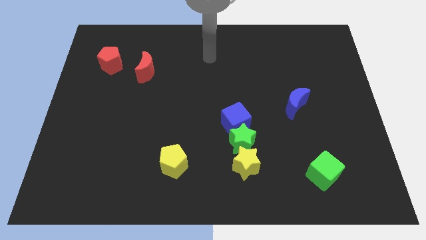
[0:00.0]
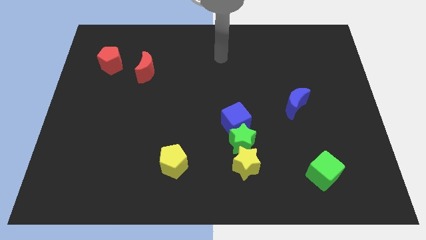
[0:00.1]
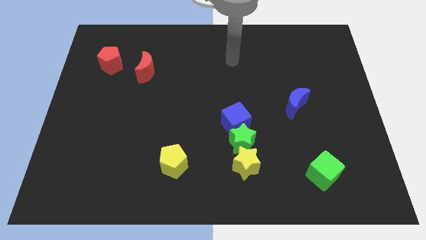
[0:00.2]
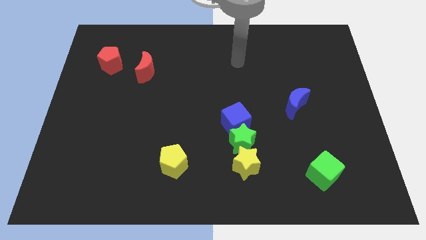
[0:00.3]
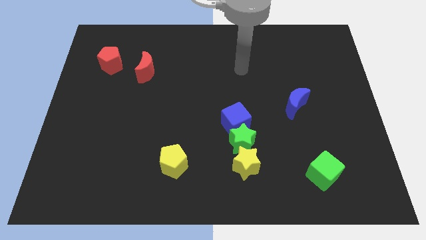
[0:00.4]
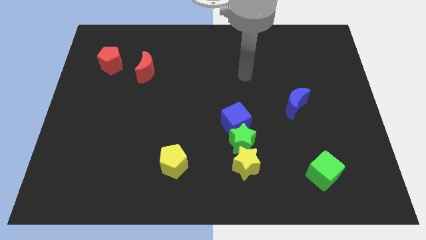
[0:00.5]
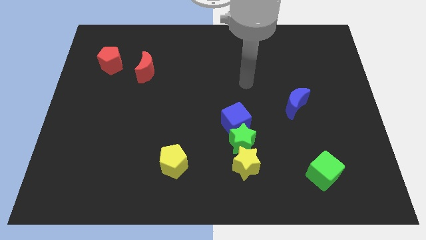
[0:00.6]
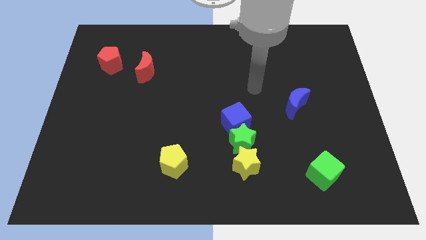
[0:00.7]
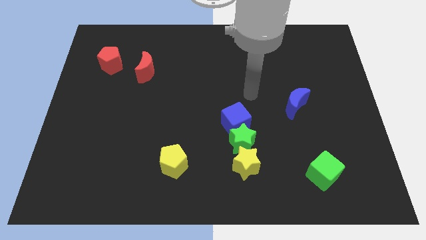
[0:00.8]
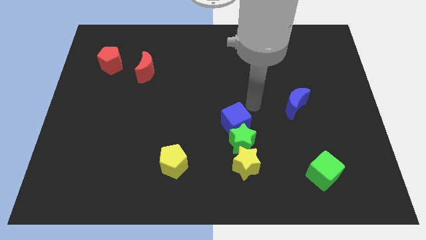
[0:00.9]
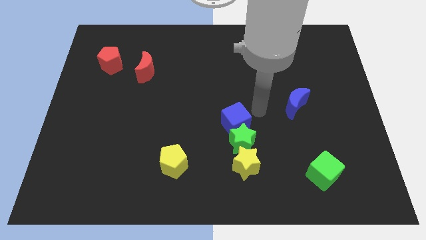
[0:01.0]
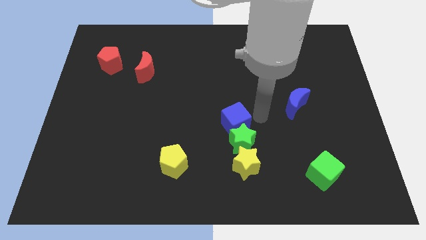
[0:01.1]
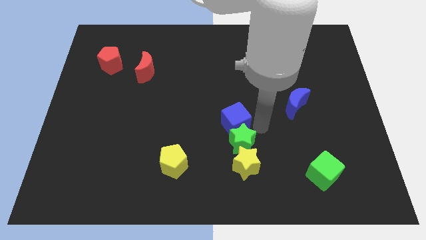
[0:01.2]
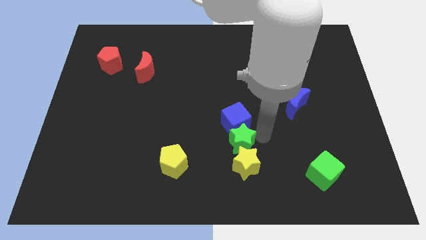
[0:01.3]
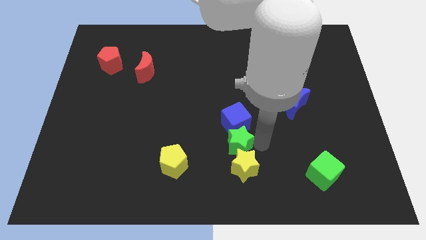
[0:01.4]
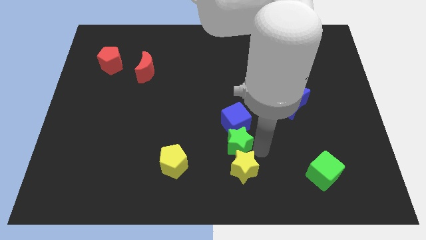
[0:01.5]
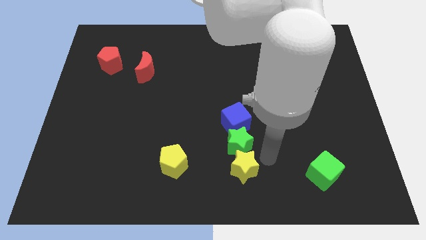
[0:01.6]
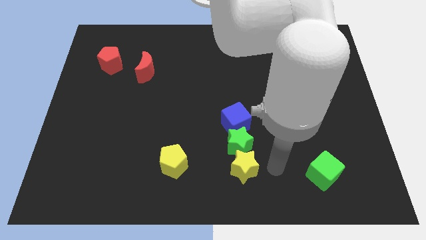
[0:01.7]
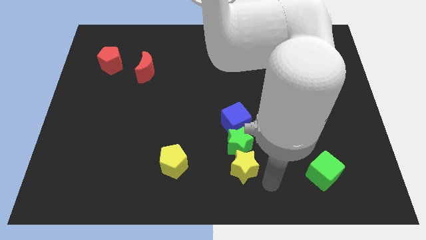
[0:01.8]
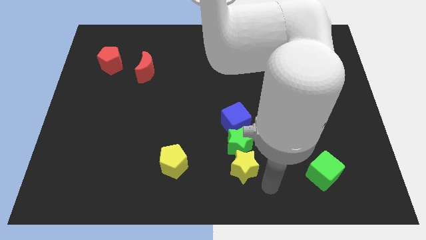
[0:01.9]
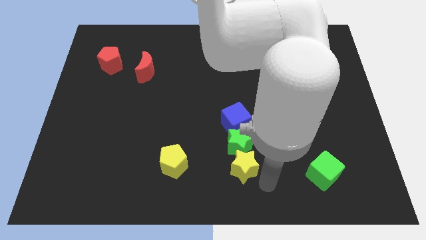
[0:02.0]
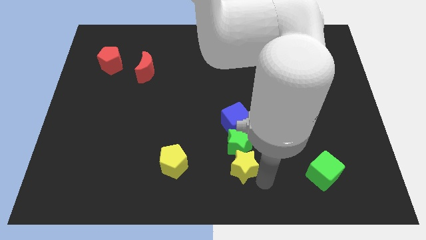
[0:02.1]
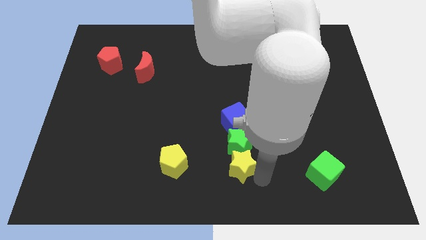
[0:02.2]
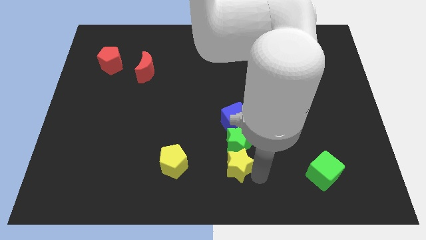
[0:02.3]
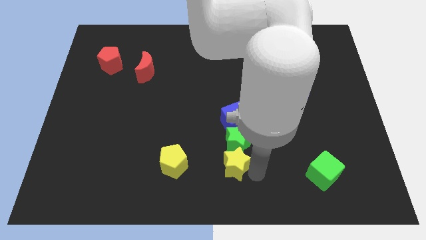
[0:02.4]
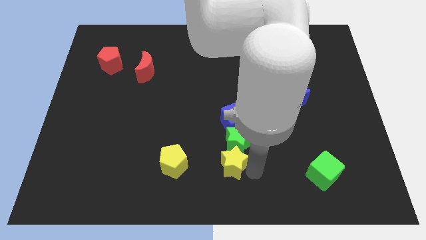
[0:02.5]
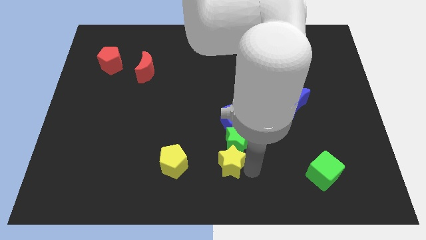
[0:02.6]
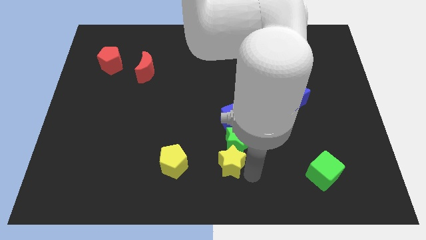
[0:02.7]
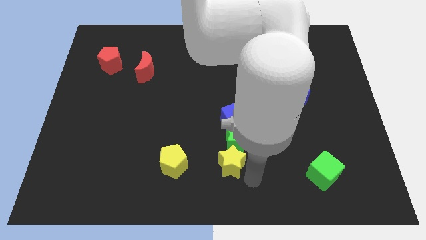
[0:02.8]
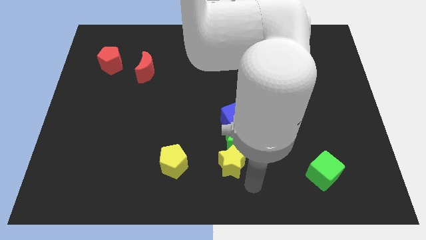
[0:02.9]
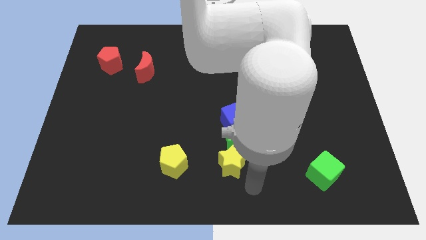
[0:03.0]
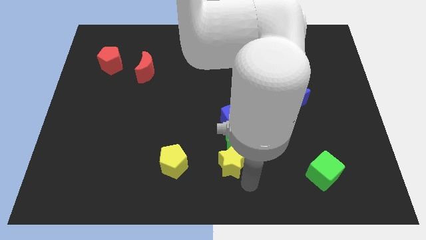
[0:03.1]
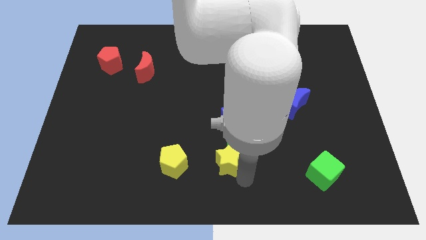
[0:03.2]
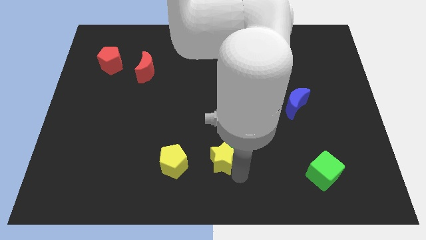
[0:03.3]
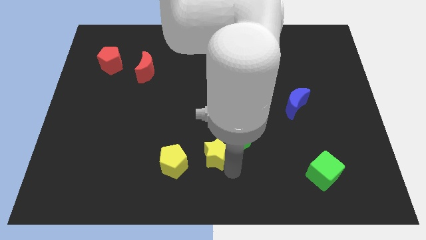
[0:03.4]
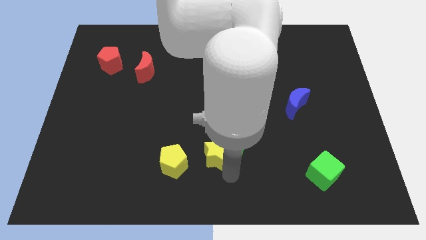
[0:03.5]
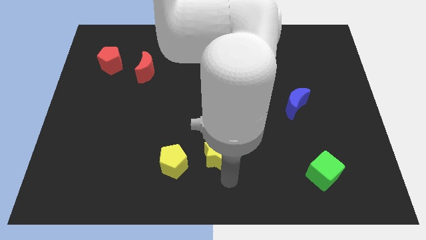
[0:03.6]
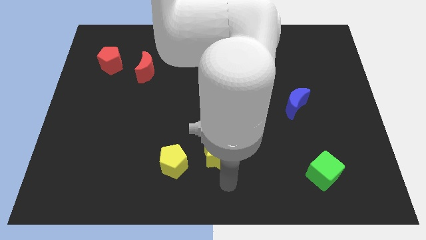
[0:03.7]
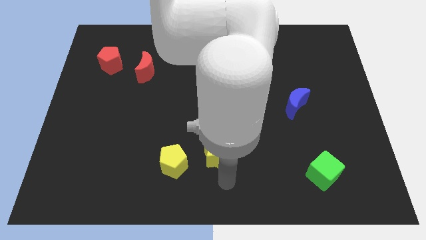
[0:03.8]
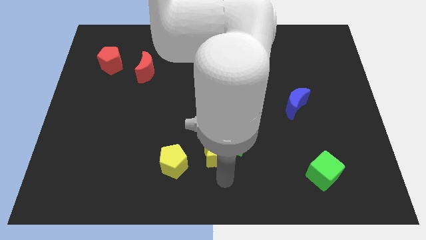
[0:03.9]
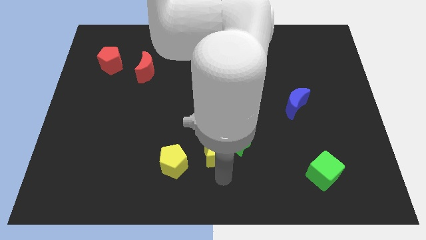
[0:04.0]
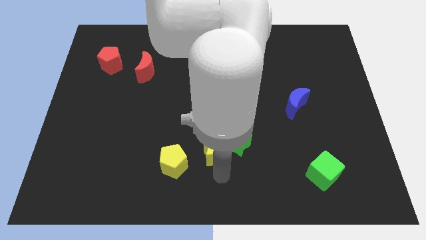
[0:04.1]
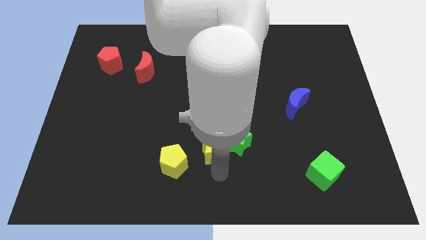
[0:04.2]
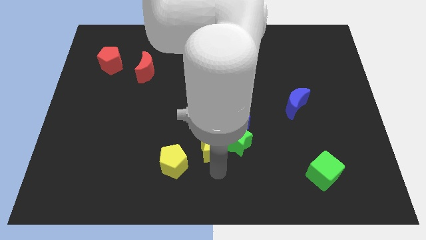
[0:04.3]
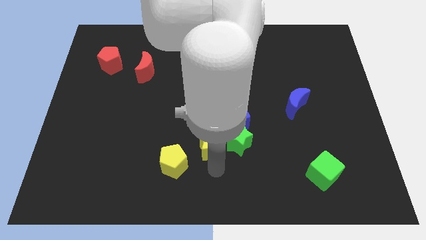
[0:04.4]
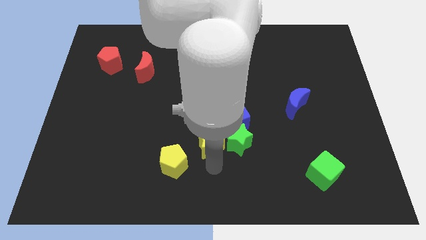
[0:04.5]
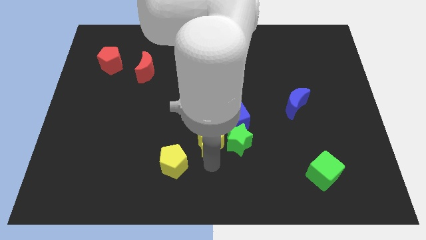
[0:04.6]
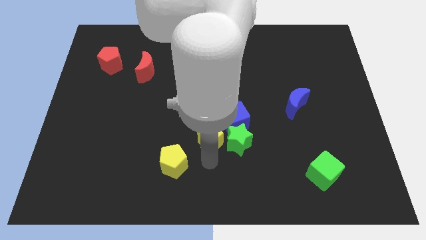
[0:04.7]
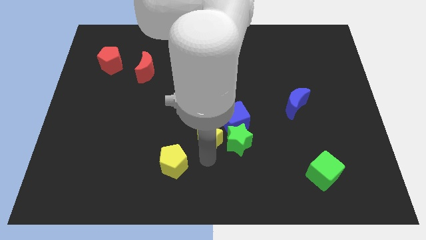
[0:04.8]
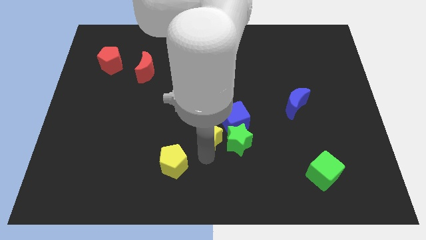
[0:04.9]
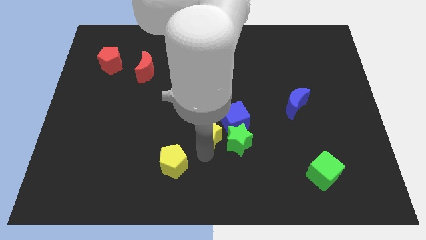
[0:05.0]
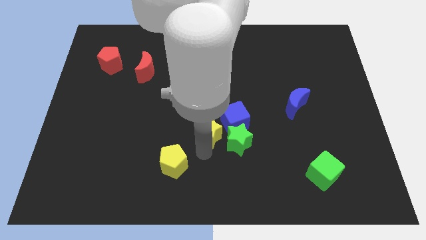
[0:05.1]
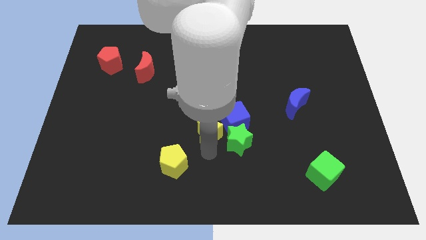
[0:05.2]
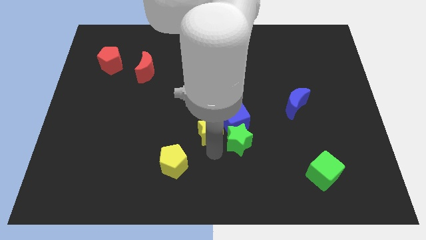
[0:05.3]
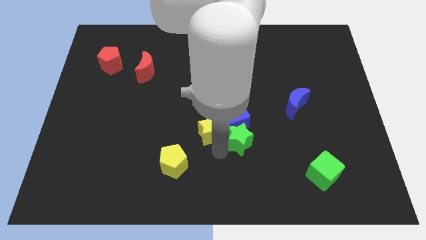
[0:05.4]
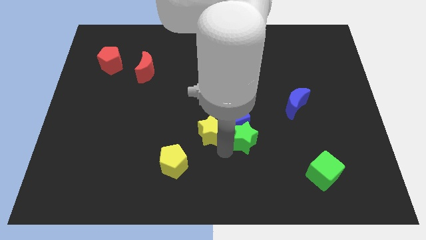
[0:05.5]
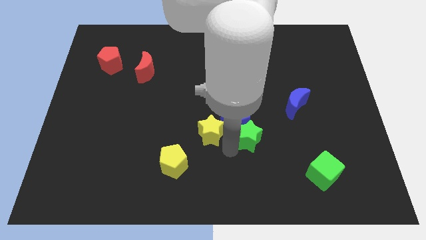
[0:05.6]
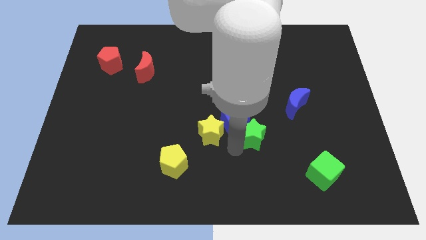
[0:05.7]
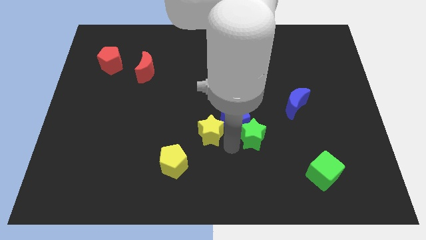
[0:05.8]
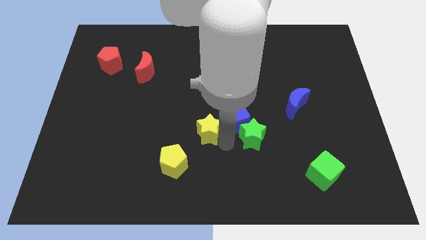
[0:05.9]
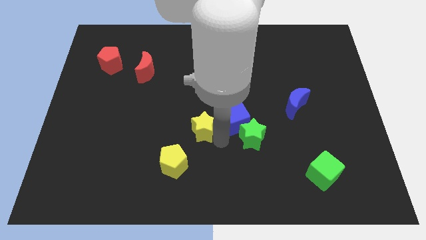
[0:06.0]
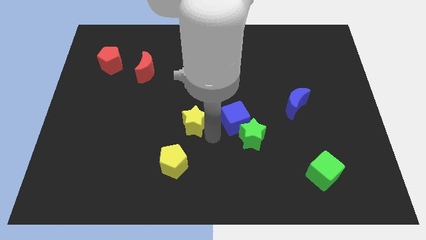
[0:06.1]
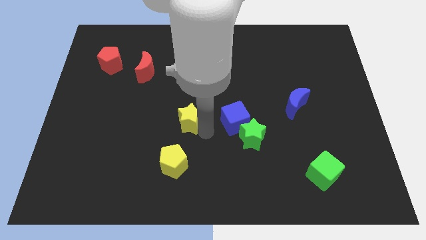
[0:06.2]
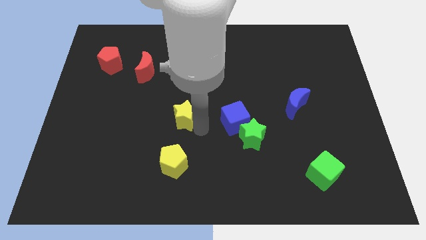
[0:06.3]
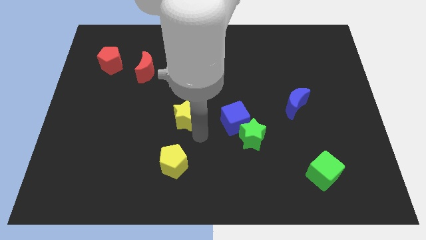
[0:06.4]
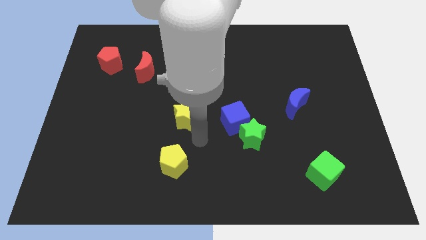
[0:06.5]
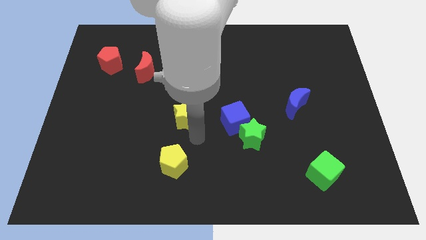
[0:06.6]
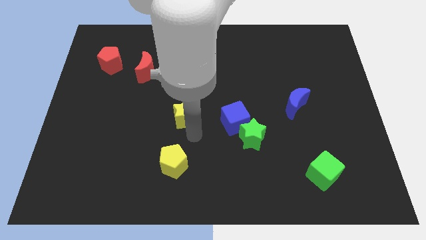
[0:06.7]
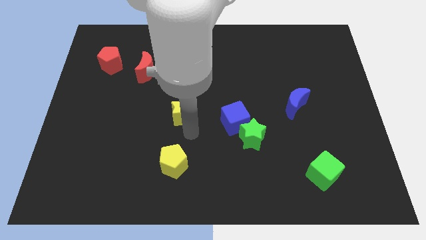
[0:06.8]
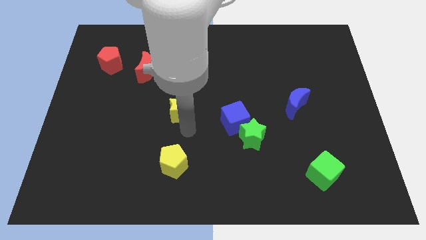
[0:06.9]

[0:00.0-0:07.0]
slide the yellow star diagonally up and to the left

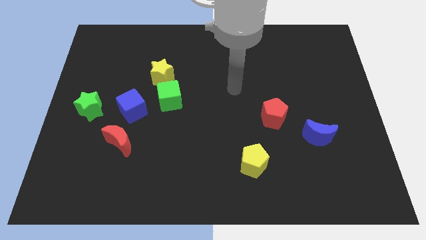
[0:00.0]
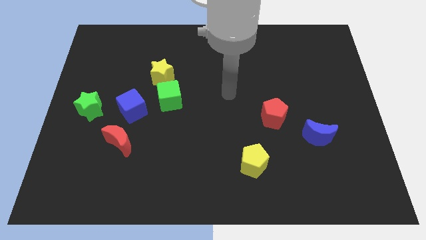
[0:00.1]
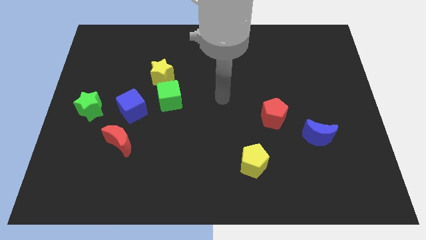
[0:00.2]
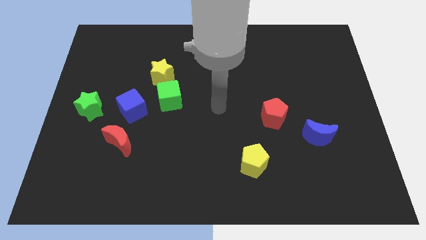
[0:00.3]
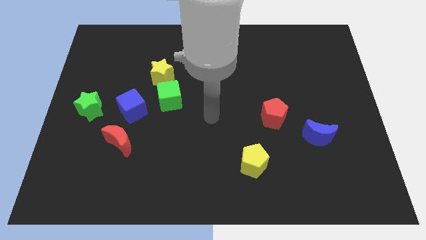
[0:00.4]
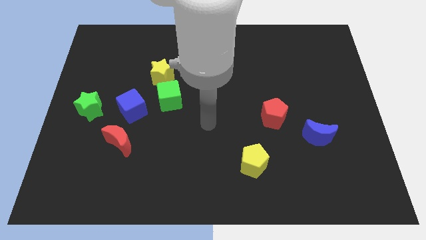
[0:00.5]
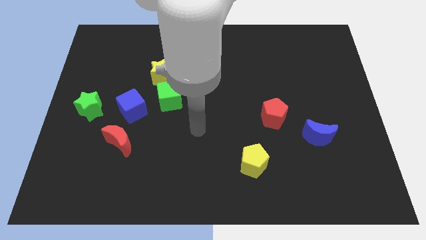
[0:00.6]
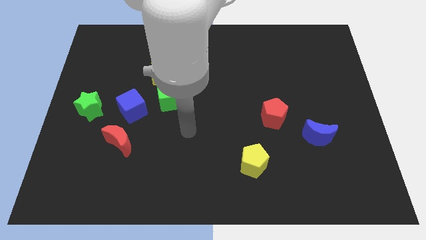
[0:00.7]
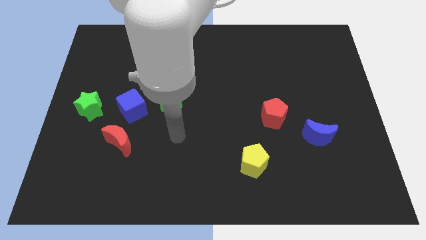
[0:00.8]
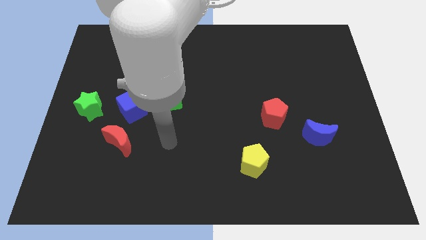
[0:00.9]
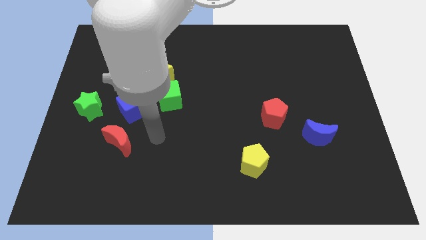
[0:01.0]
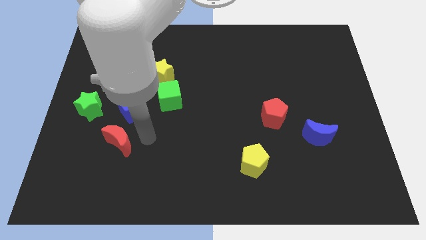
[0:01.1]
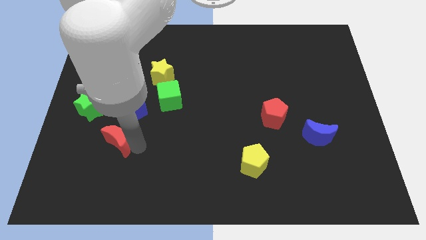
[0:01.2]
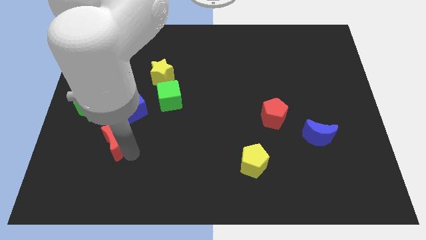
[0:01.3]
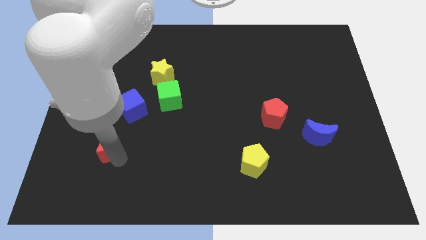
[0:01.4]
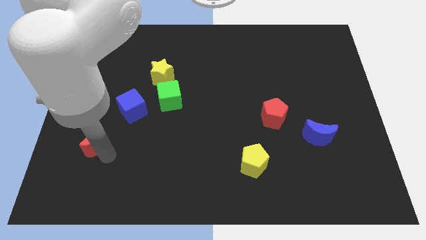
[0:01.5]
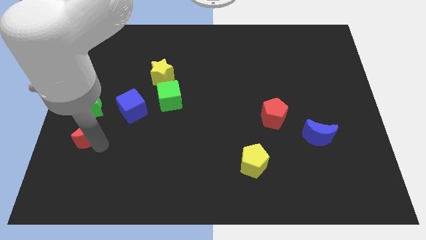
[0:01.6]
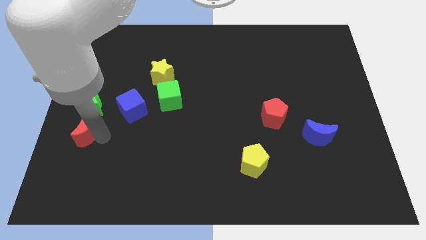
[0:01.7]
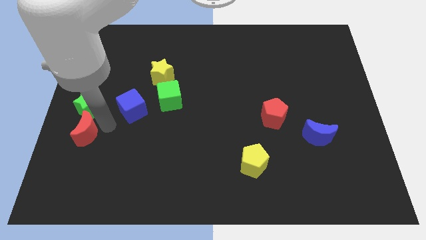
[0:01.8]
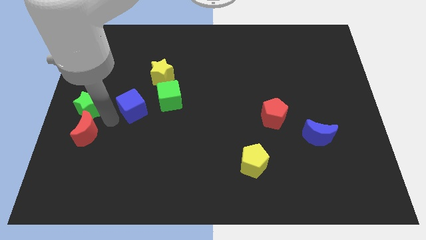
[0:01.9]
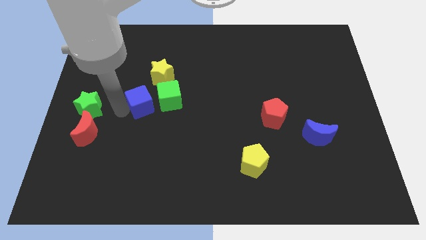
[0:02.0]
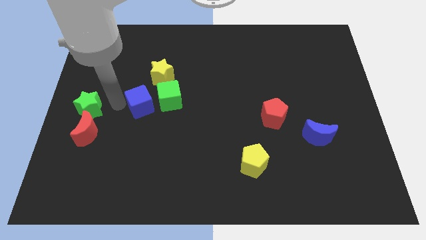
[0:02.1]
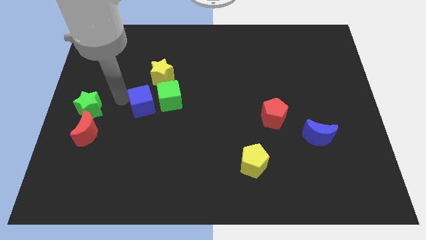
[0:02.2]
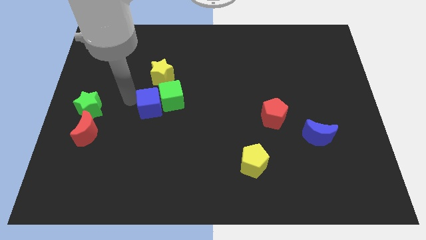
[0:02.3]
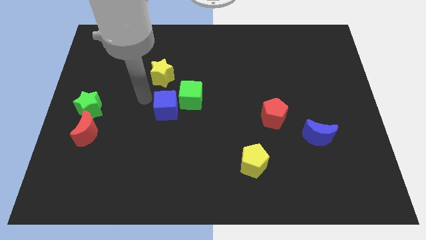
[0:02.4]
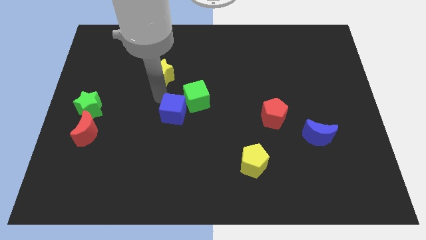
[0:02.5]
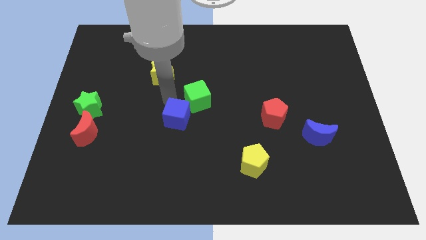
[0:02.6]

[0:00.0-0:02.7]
slide the green cube to the right a little bit
